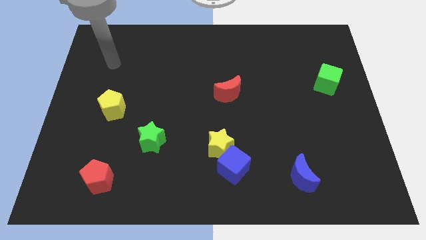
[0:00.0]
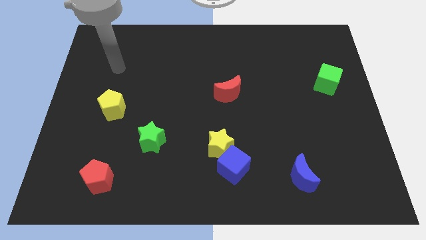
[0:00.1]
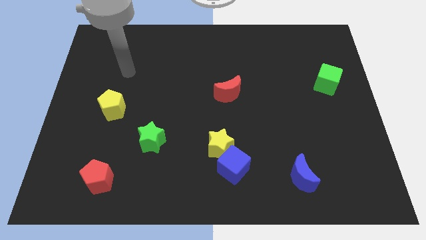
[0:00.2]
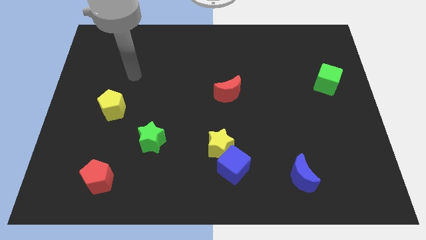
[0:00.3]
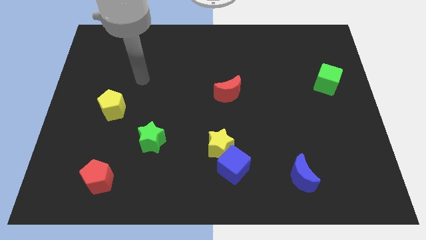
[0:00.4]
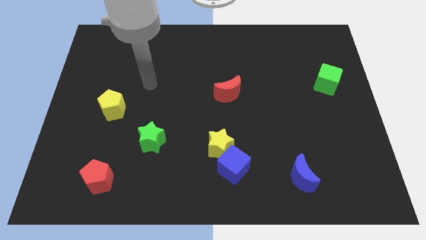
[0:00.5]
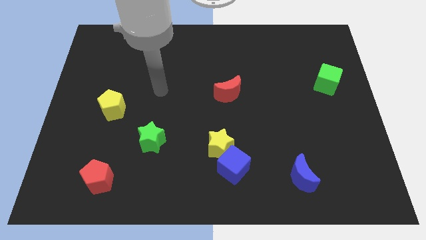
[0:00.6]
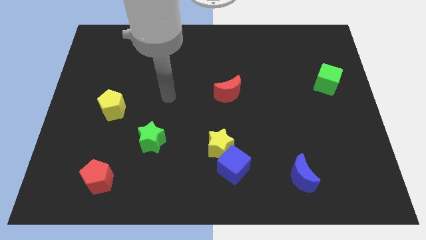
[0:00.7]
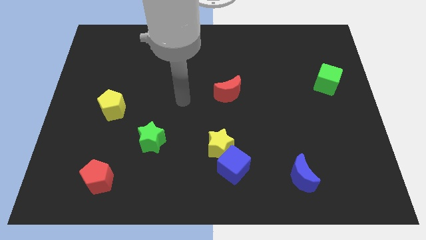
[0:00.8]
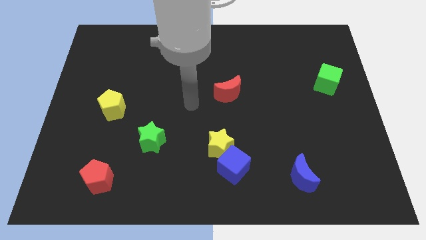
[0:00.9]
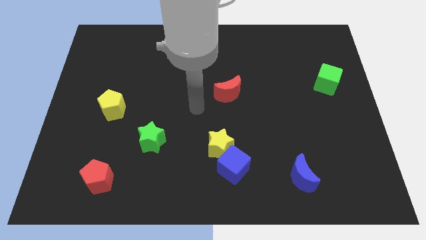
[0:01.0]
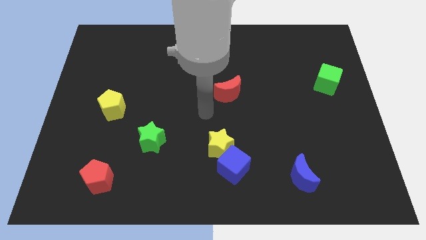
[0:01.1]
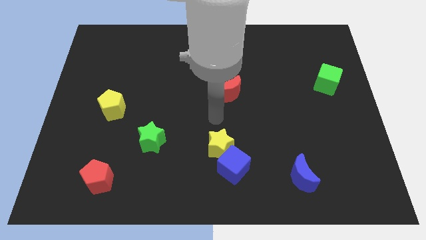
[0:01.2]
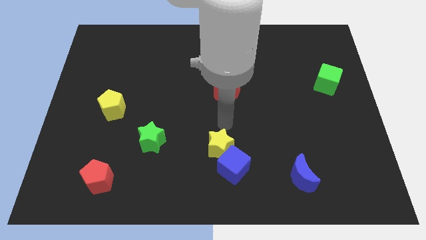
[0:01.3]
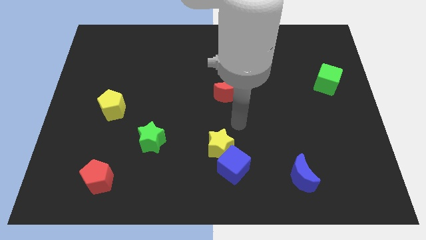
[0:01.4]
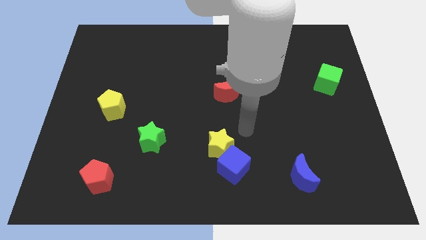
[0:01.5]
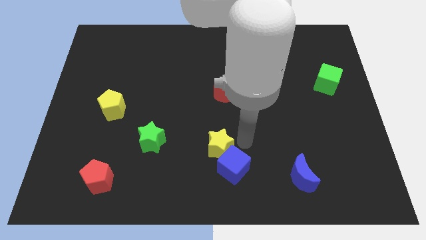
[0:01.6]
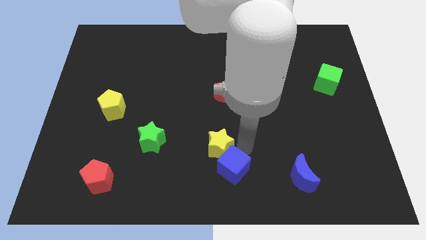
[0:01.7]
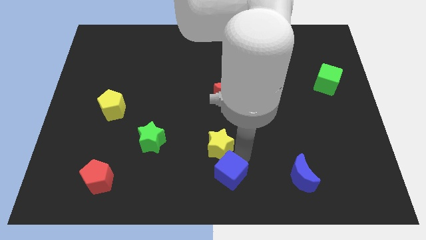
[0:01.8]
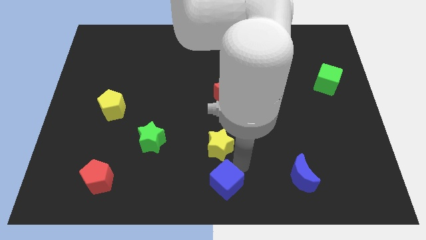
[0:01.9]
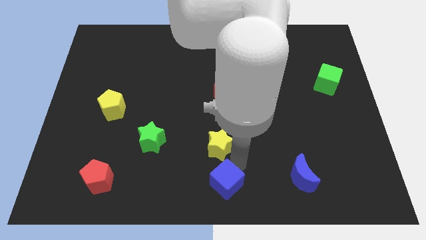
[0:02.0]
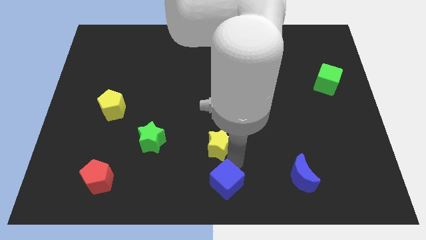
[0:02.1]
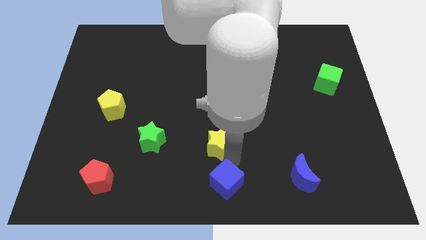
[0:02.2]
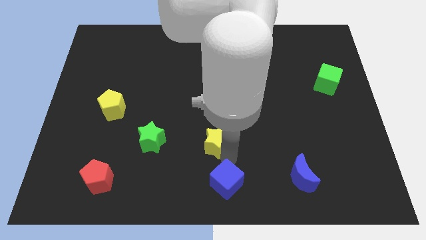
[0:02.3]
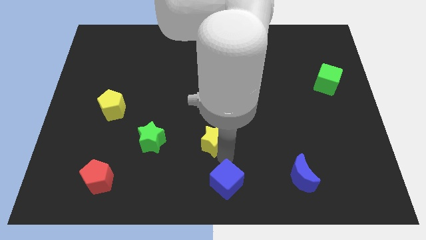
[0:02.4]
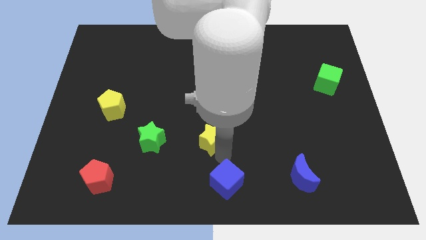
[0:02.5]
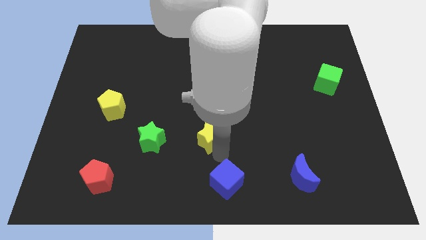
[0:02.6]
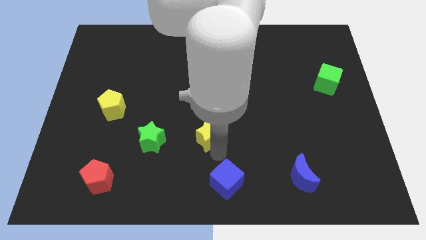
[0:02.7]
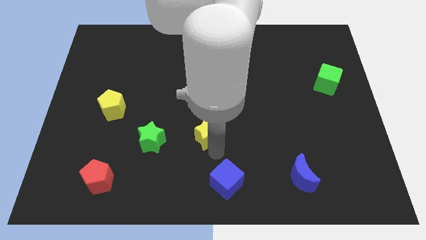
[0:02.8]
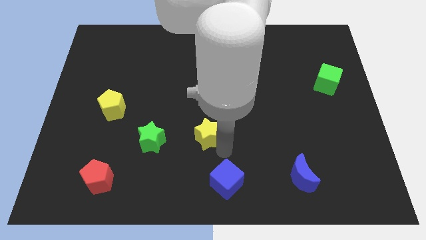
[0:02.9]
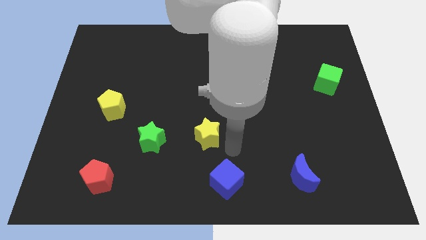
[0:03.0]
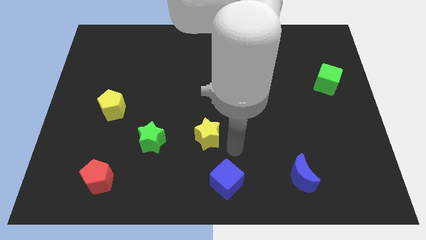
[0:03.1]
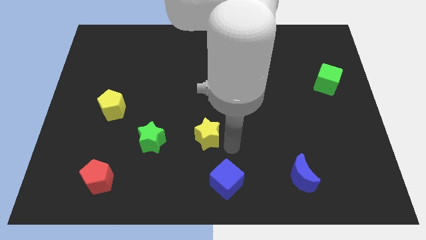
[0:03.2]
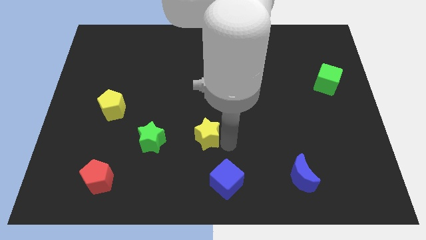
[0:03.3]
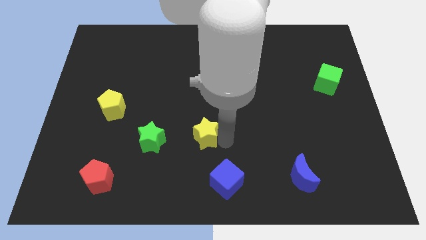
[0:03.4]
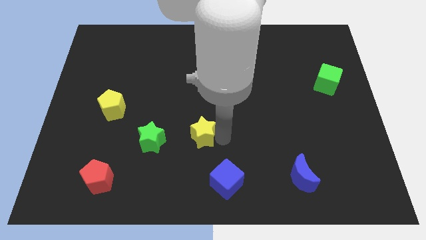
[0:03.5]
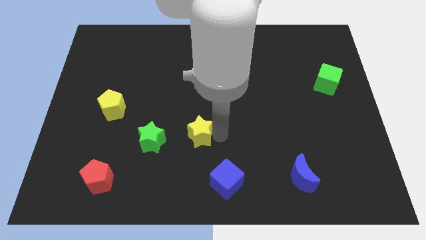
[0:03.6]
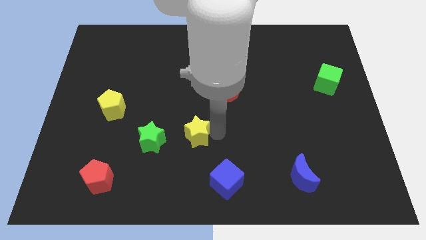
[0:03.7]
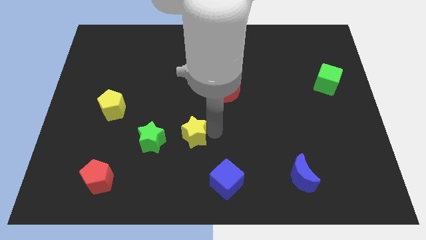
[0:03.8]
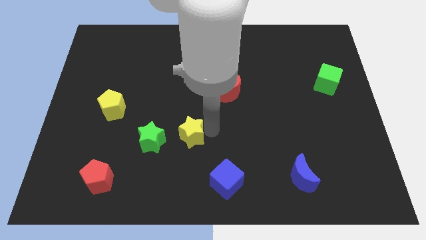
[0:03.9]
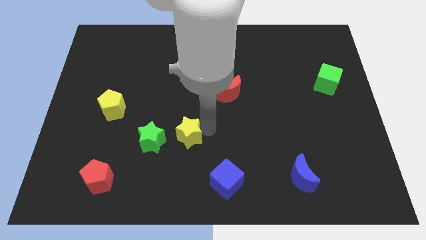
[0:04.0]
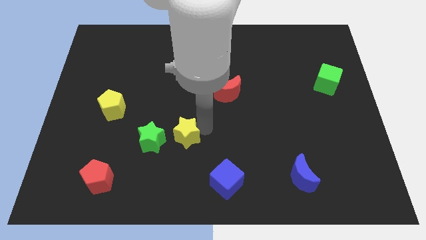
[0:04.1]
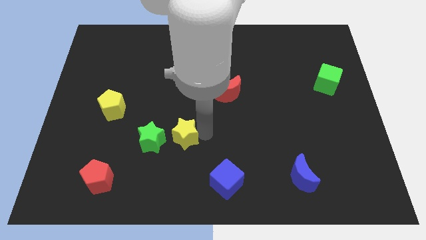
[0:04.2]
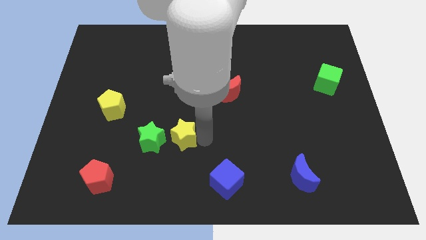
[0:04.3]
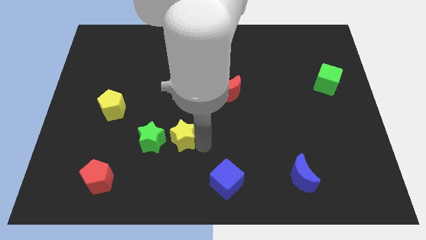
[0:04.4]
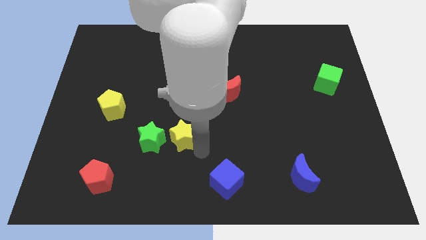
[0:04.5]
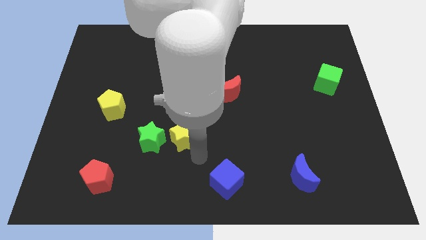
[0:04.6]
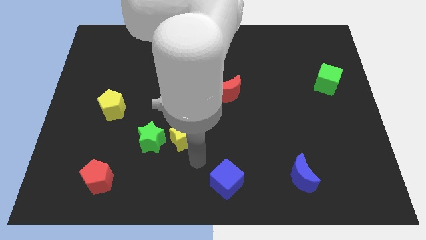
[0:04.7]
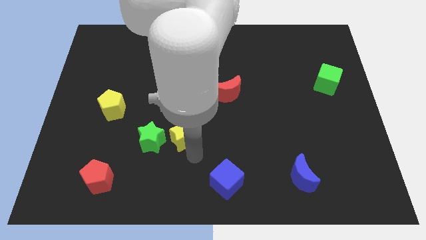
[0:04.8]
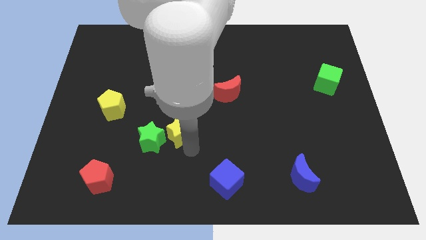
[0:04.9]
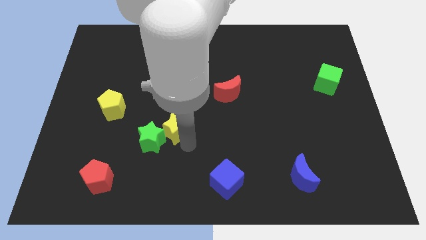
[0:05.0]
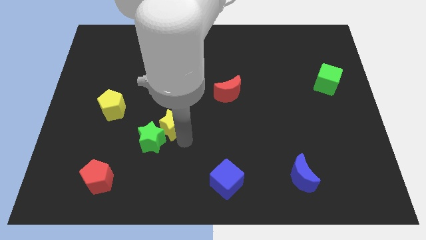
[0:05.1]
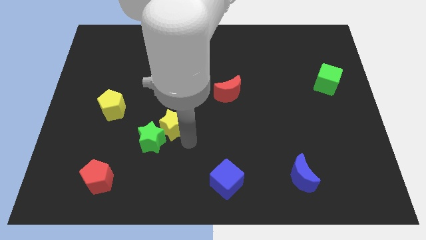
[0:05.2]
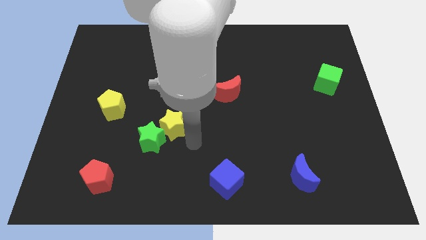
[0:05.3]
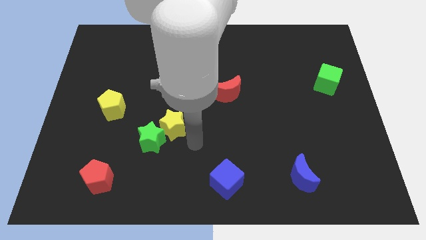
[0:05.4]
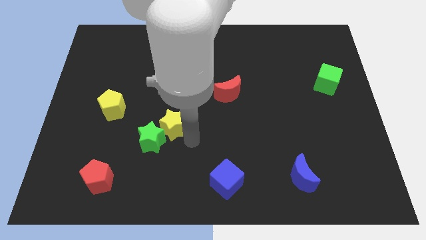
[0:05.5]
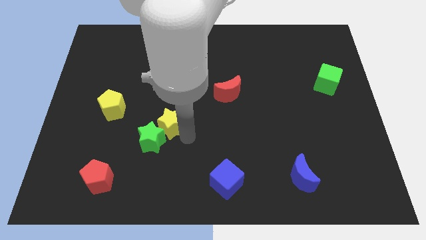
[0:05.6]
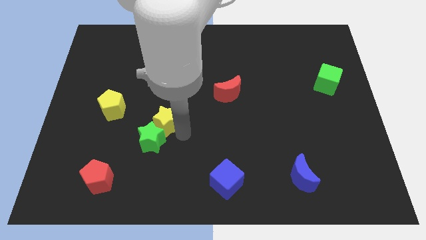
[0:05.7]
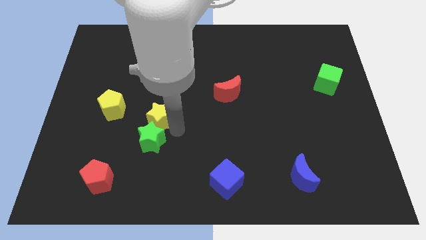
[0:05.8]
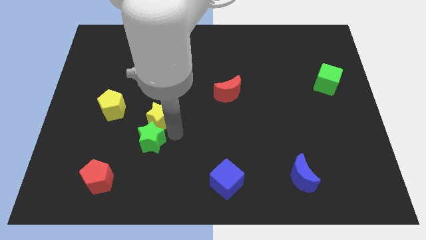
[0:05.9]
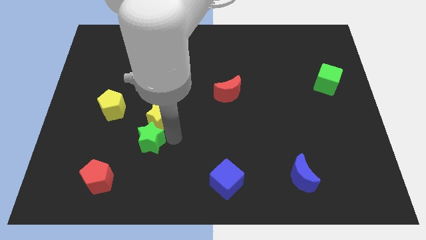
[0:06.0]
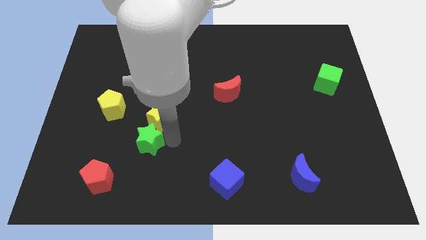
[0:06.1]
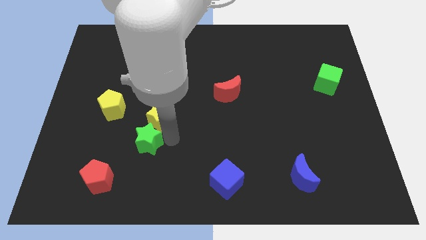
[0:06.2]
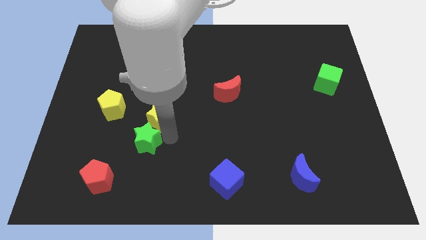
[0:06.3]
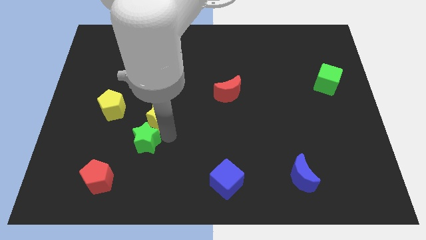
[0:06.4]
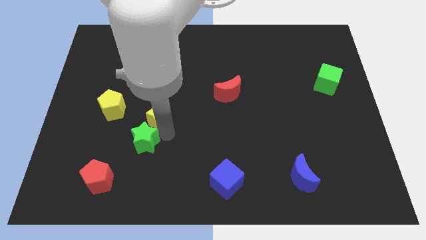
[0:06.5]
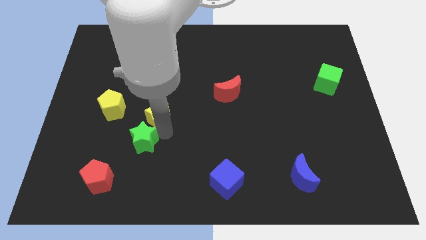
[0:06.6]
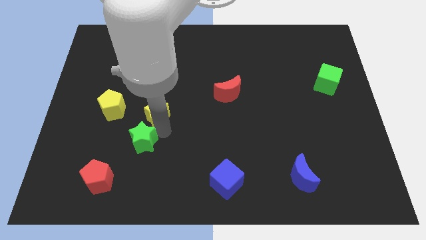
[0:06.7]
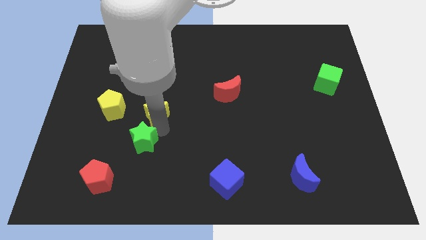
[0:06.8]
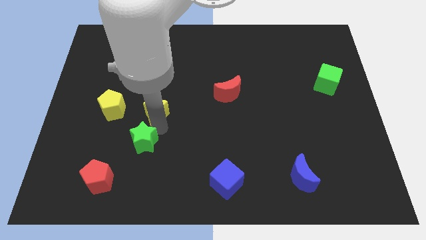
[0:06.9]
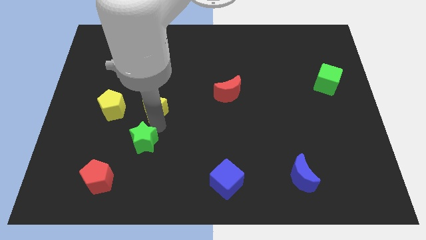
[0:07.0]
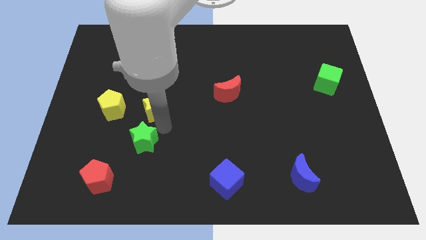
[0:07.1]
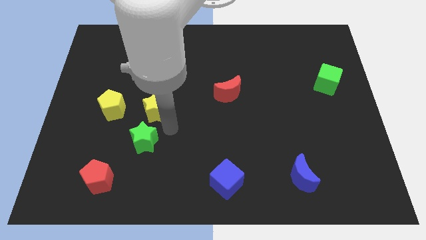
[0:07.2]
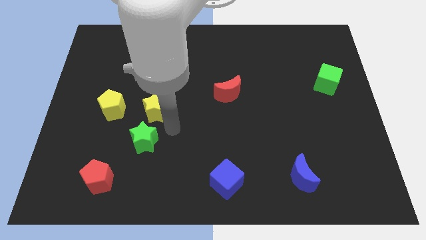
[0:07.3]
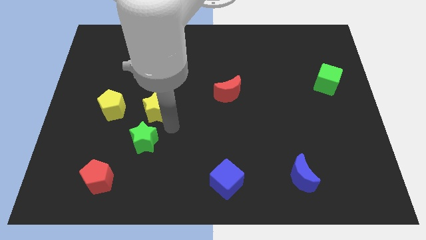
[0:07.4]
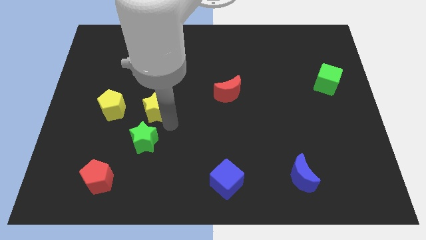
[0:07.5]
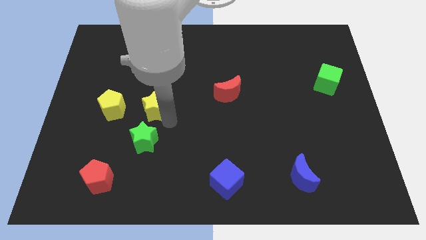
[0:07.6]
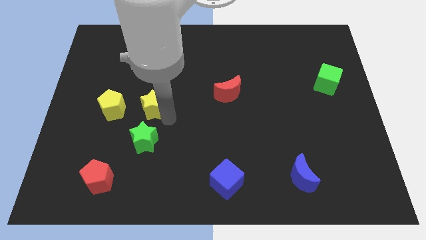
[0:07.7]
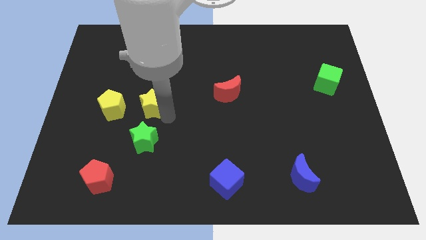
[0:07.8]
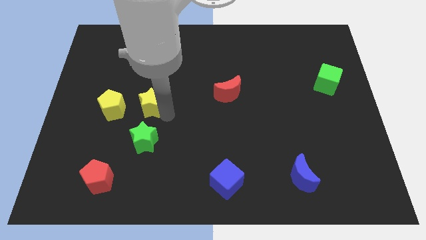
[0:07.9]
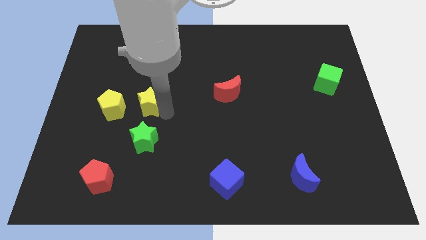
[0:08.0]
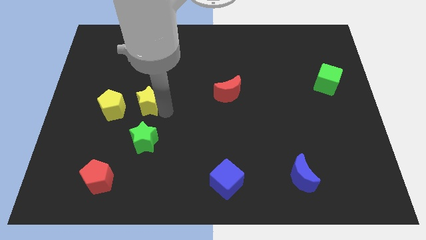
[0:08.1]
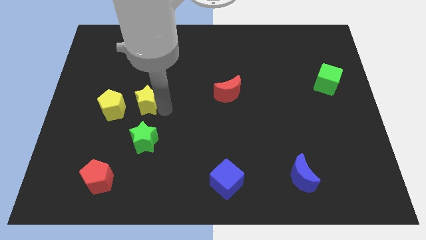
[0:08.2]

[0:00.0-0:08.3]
move the yellow star diagonally upwards and to the left
